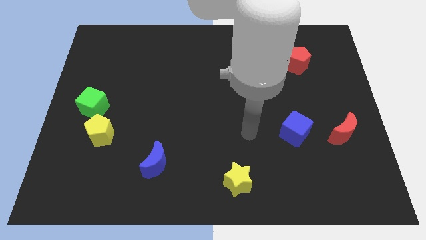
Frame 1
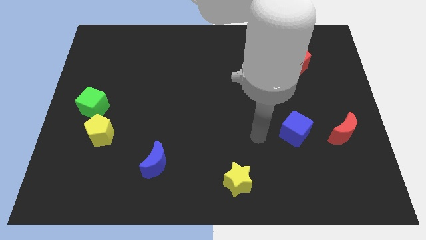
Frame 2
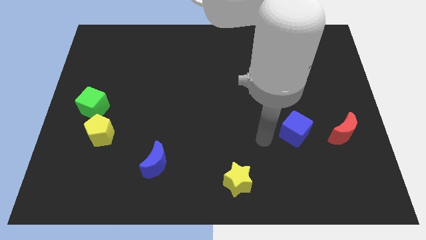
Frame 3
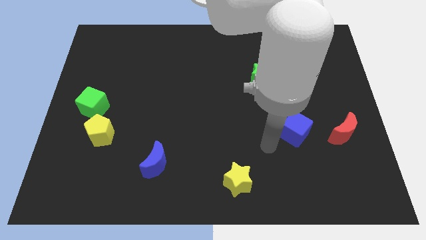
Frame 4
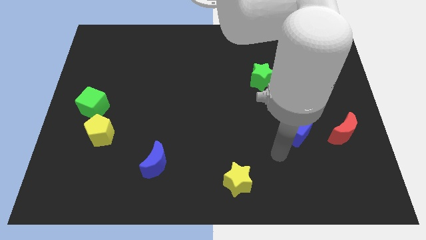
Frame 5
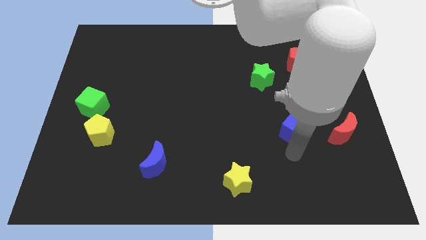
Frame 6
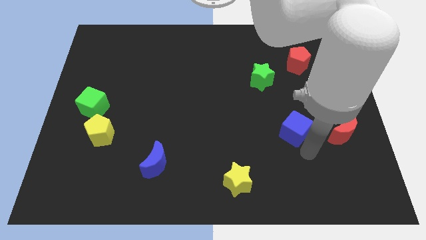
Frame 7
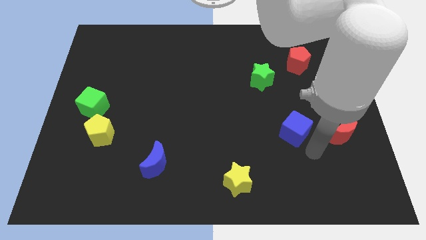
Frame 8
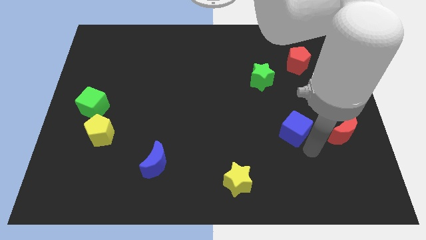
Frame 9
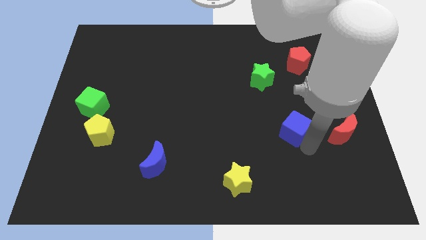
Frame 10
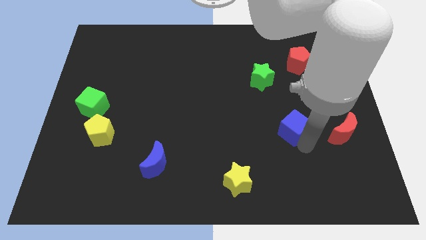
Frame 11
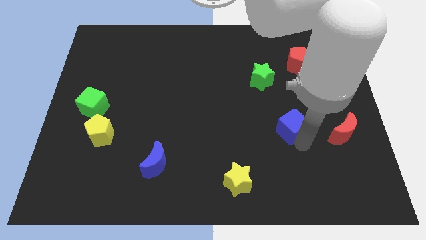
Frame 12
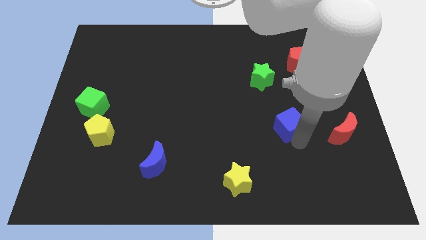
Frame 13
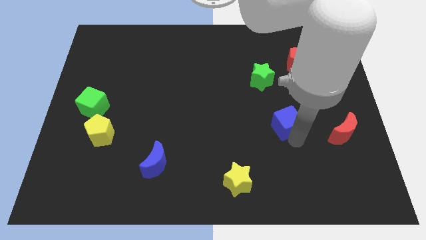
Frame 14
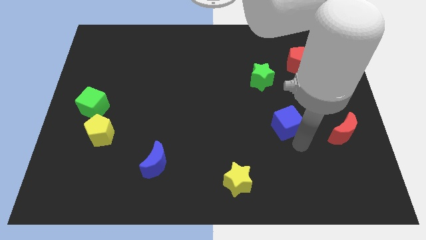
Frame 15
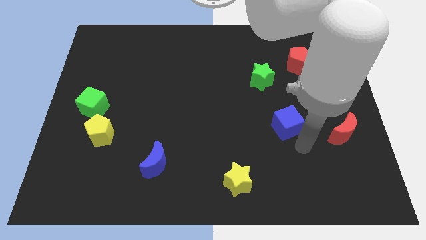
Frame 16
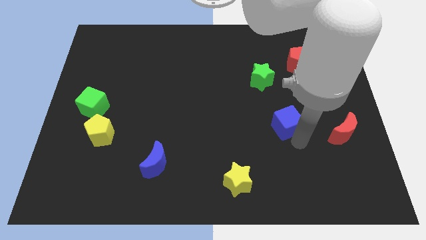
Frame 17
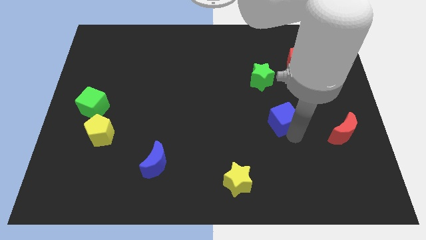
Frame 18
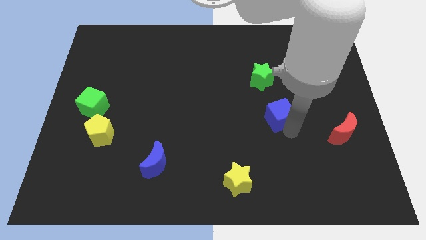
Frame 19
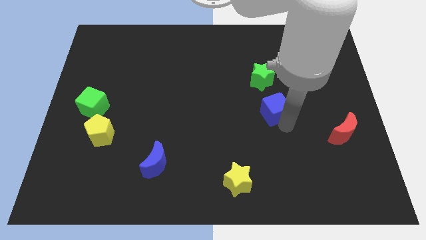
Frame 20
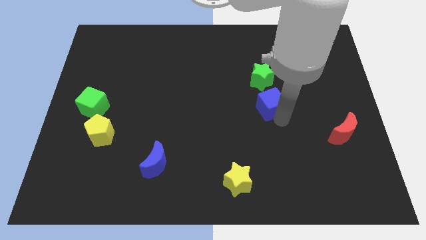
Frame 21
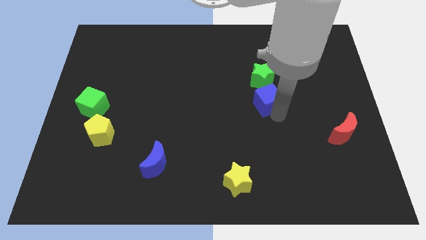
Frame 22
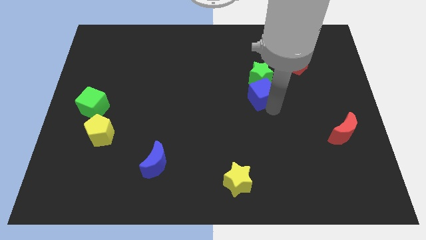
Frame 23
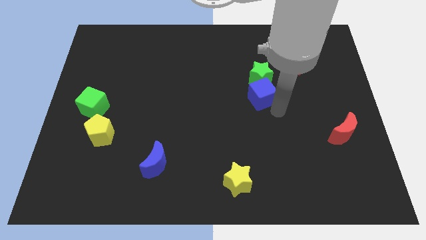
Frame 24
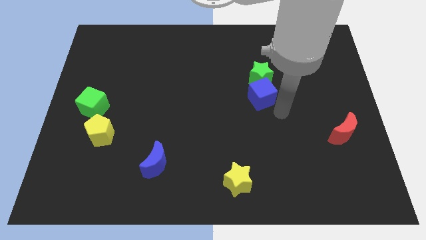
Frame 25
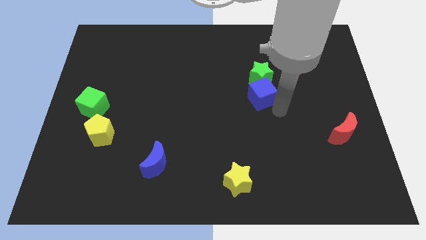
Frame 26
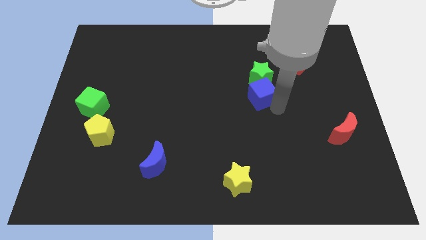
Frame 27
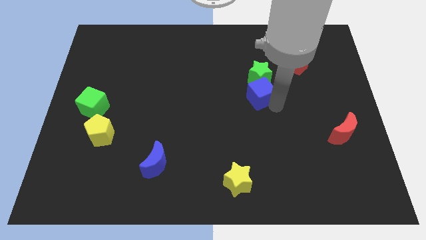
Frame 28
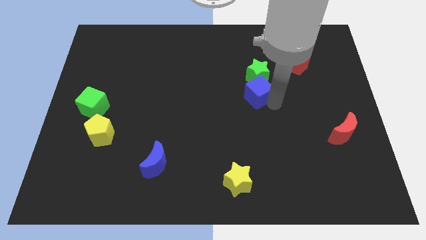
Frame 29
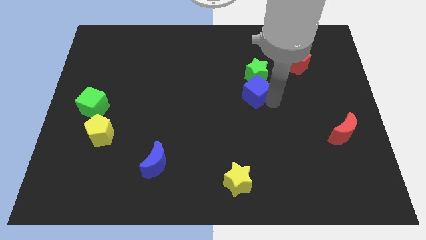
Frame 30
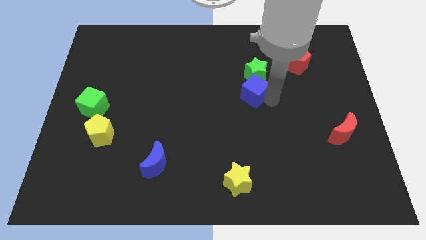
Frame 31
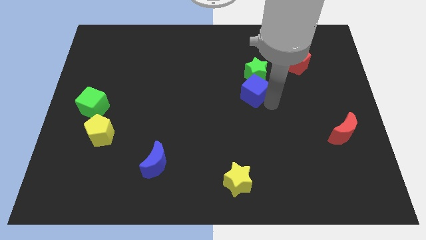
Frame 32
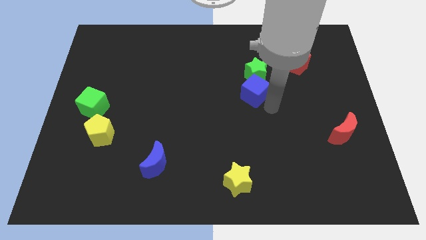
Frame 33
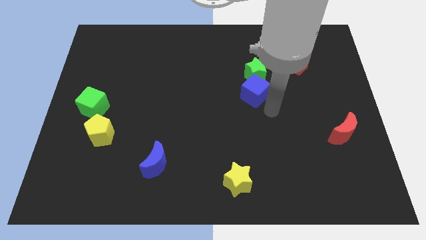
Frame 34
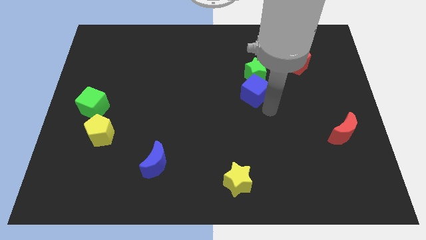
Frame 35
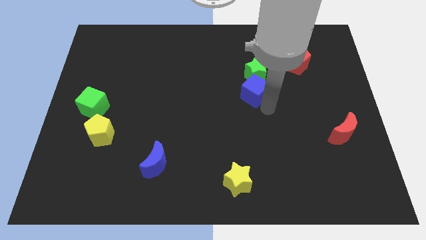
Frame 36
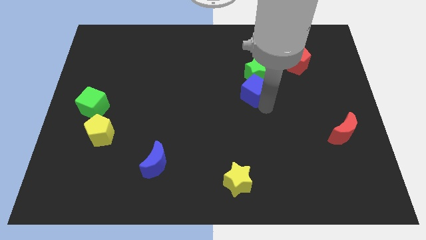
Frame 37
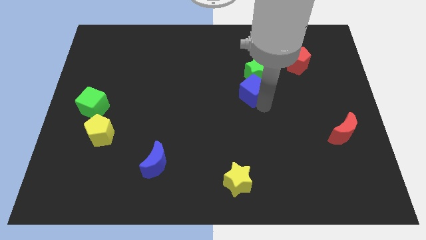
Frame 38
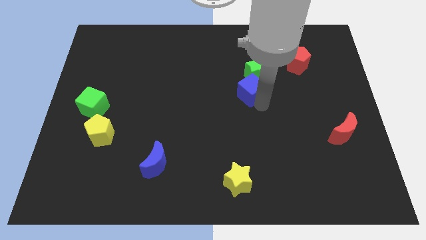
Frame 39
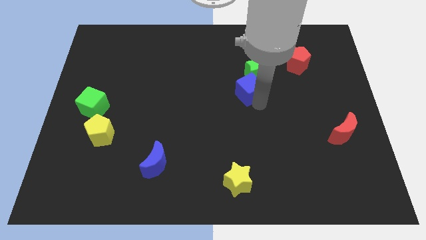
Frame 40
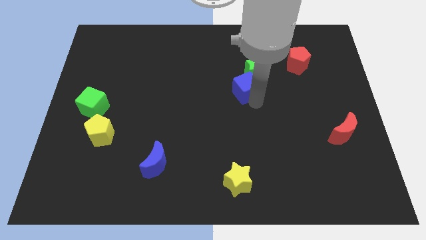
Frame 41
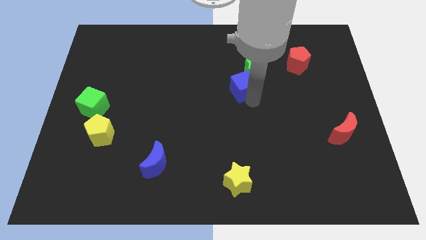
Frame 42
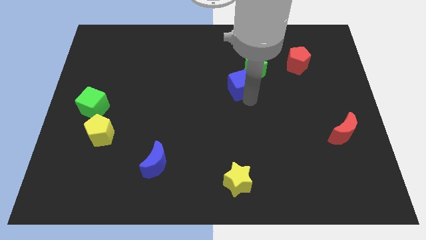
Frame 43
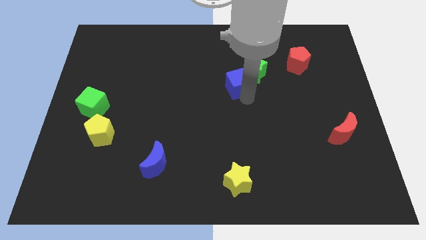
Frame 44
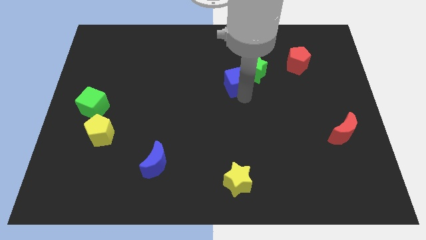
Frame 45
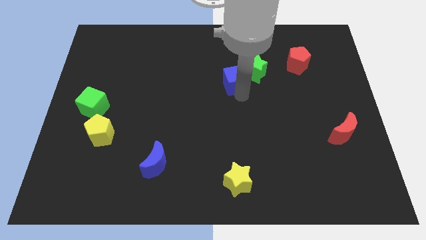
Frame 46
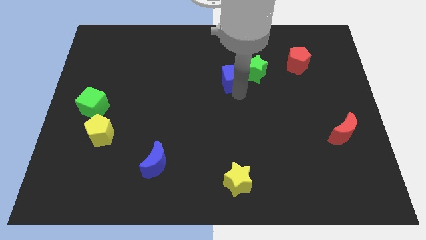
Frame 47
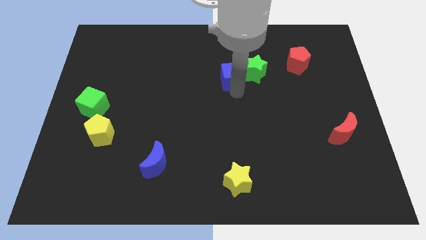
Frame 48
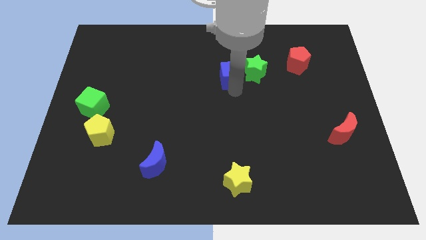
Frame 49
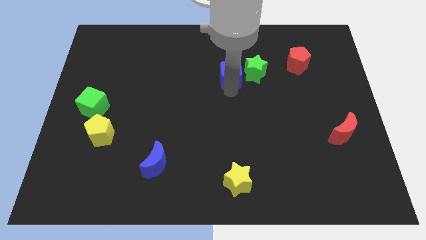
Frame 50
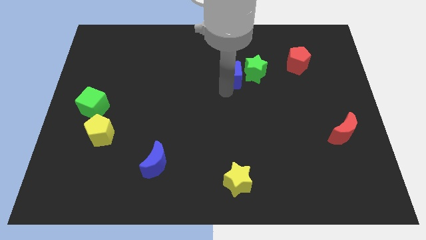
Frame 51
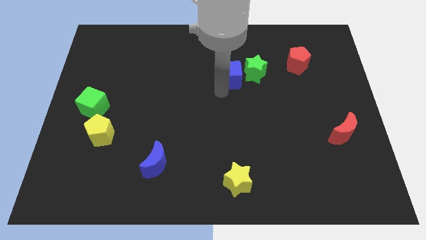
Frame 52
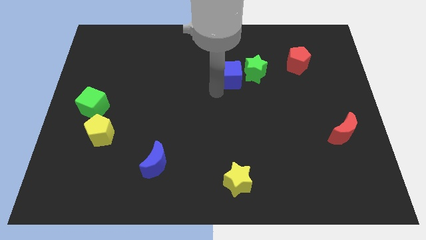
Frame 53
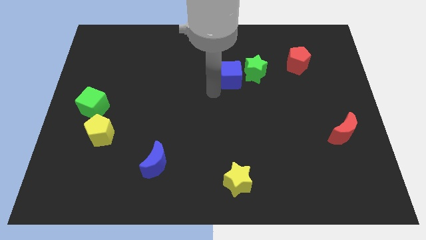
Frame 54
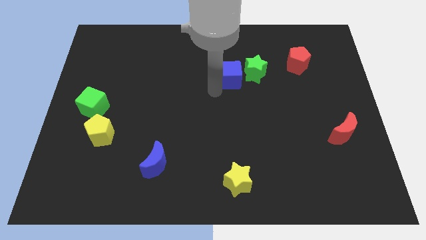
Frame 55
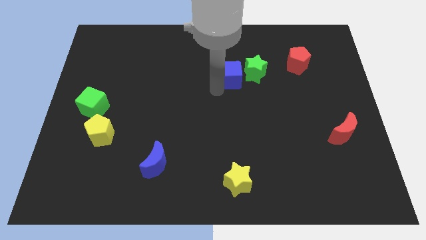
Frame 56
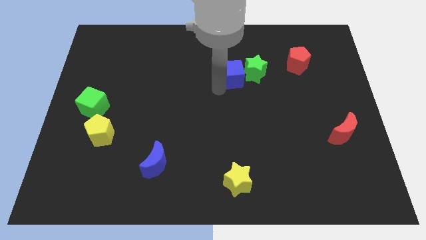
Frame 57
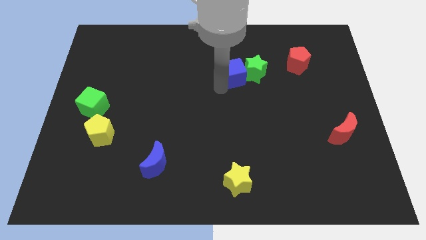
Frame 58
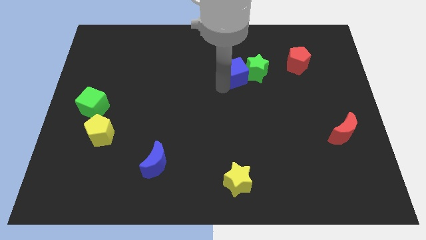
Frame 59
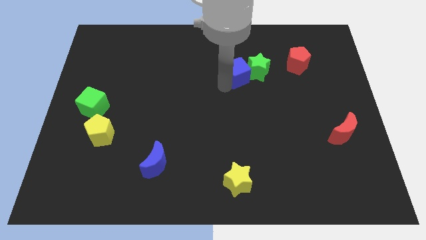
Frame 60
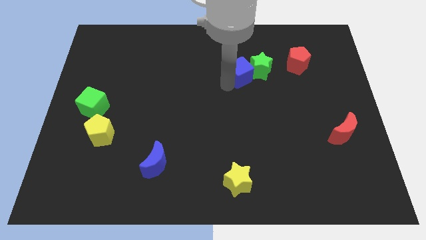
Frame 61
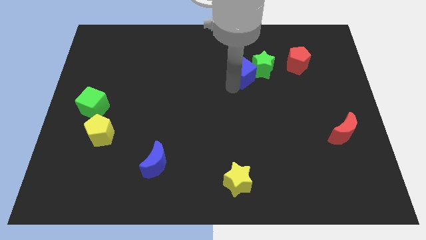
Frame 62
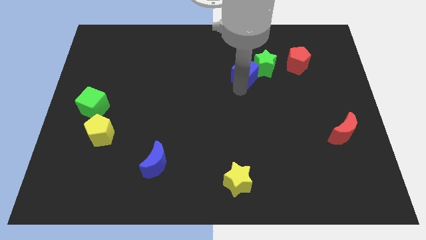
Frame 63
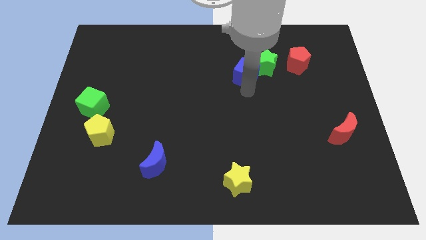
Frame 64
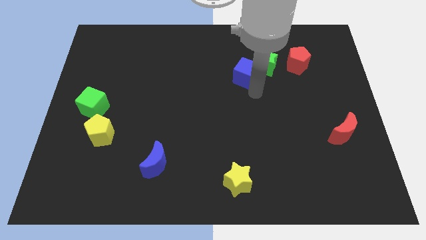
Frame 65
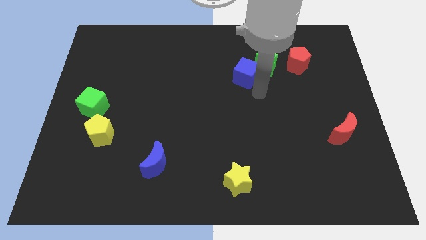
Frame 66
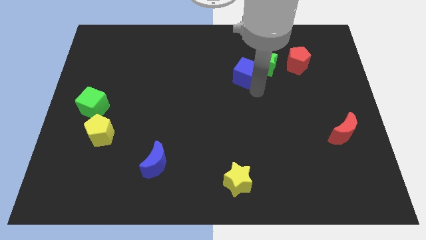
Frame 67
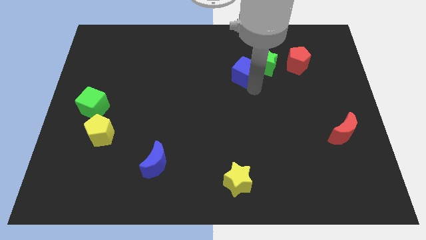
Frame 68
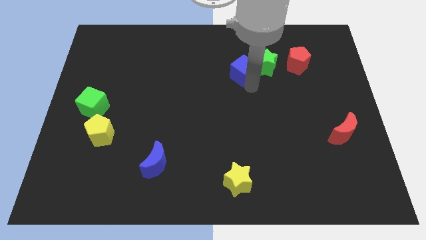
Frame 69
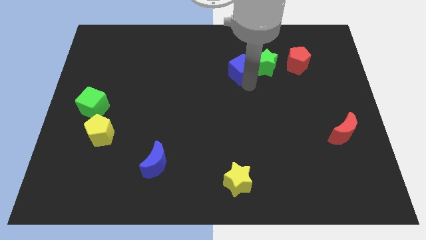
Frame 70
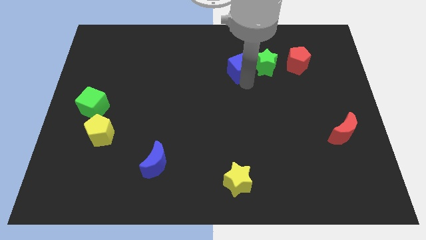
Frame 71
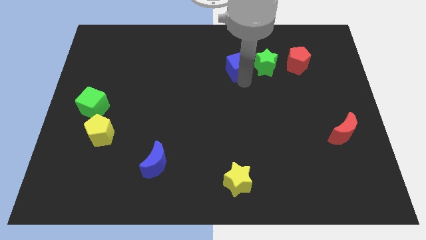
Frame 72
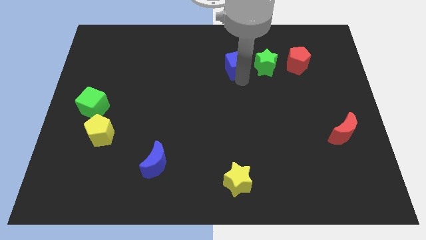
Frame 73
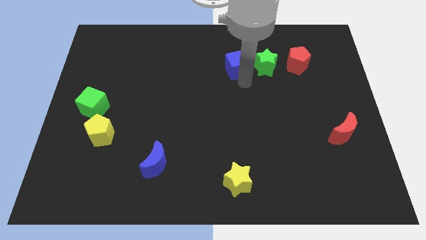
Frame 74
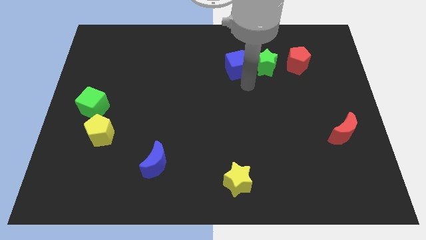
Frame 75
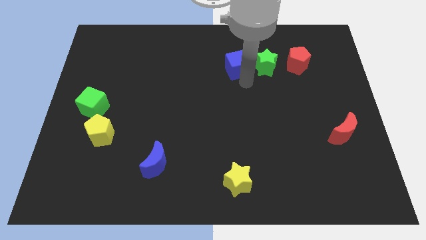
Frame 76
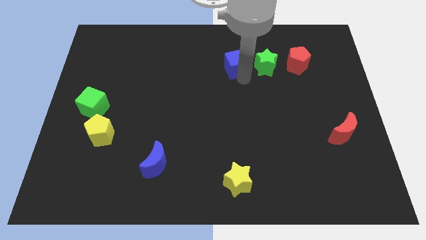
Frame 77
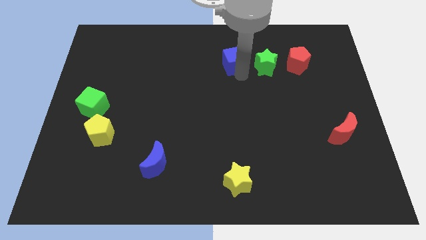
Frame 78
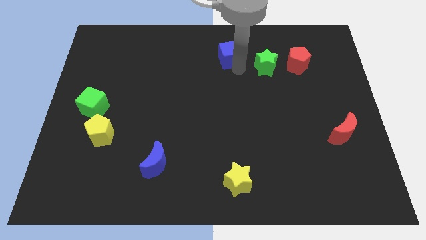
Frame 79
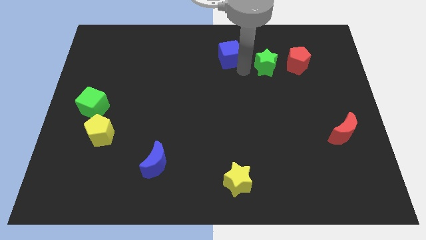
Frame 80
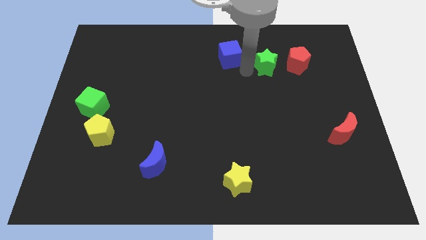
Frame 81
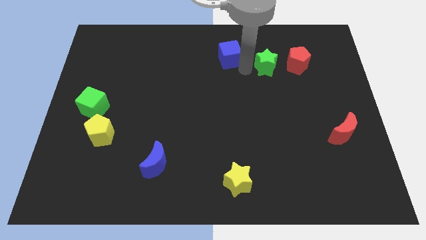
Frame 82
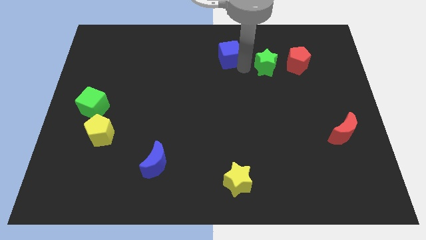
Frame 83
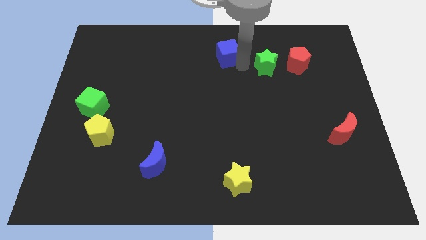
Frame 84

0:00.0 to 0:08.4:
put the blue cube to the top side
